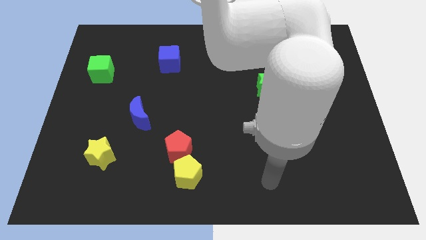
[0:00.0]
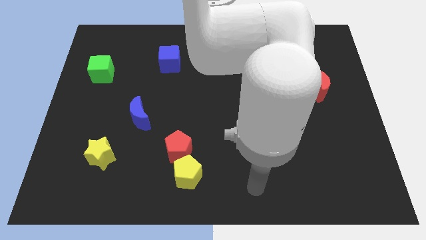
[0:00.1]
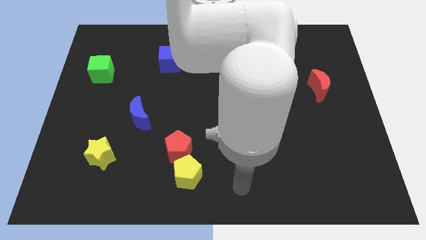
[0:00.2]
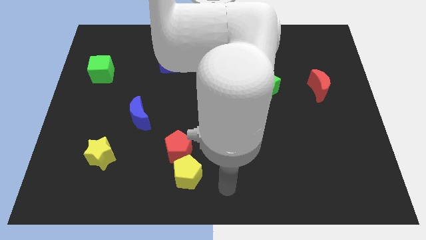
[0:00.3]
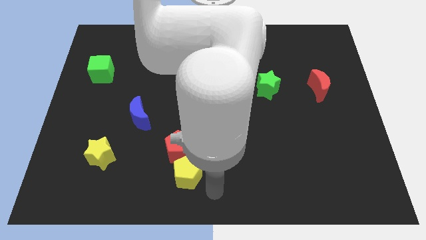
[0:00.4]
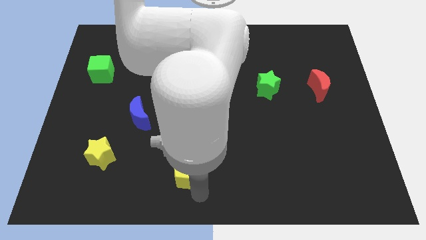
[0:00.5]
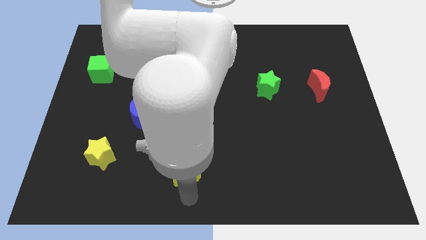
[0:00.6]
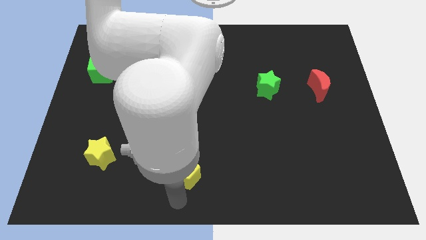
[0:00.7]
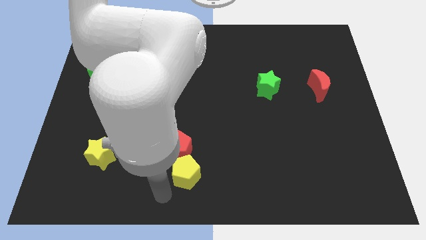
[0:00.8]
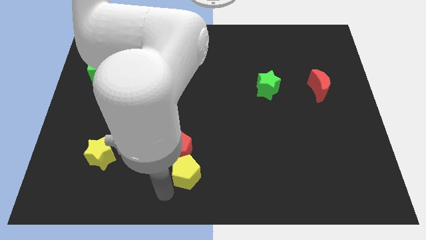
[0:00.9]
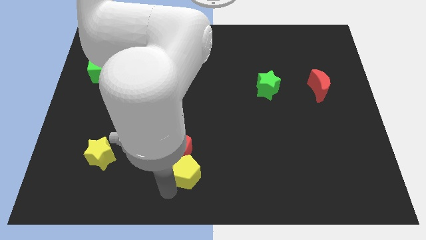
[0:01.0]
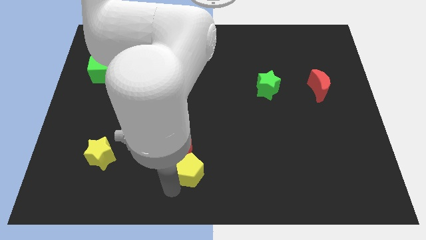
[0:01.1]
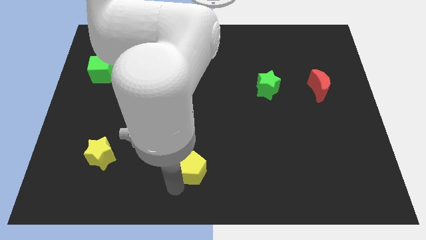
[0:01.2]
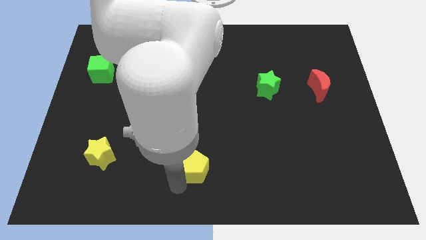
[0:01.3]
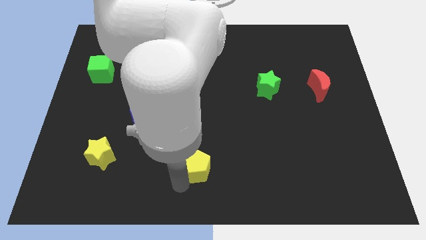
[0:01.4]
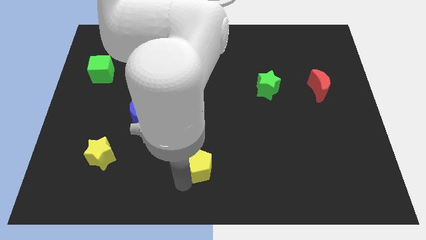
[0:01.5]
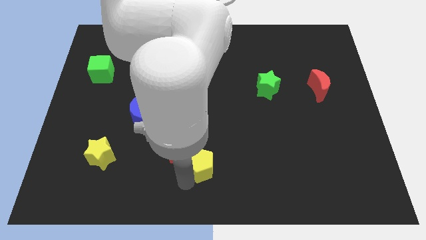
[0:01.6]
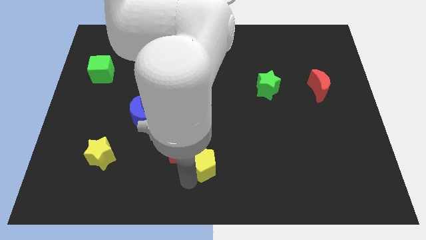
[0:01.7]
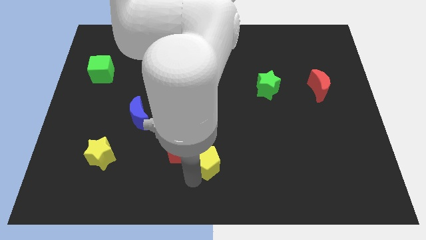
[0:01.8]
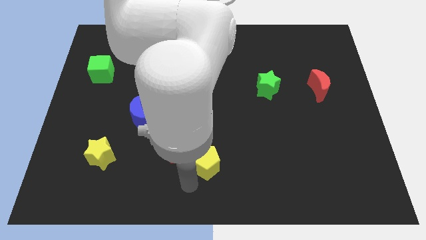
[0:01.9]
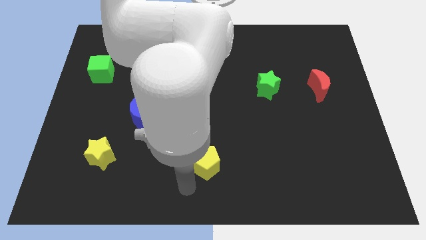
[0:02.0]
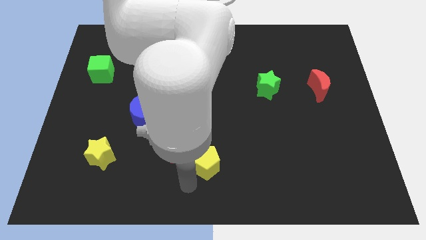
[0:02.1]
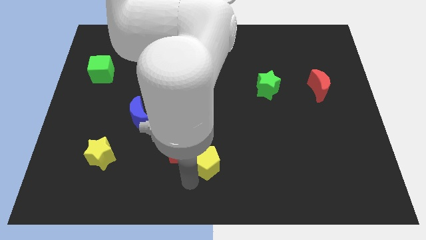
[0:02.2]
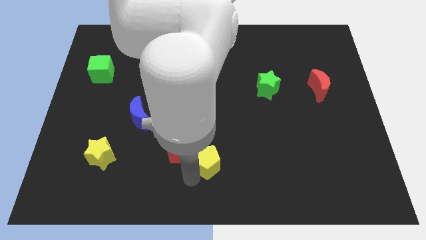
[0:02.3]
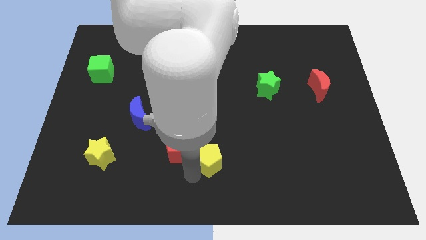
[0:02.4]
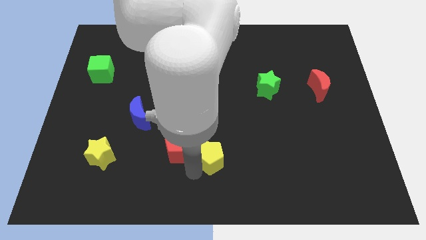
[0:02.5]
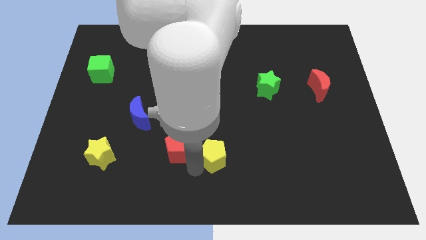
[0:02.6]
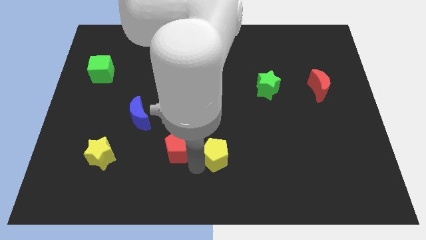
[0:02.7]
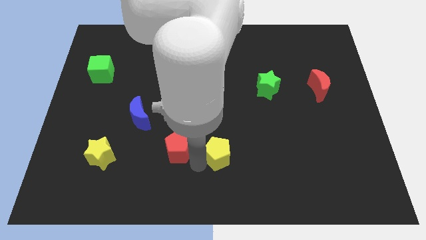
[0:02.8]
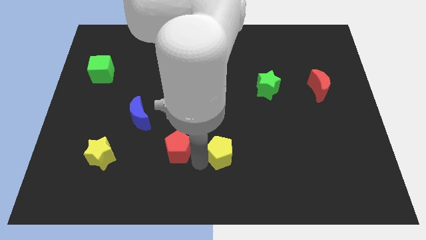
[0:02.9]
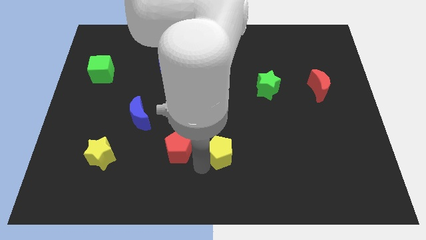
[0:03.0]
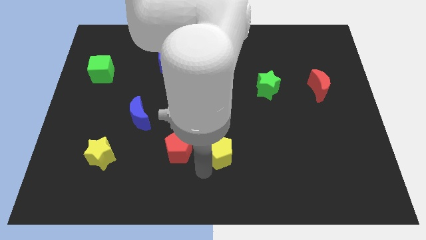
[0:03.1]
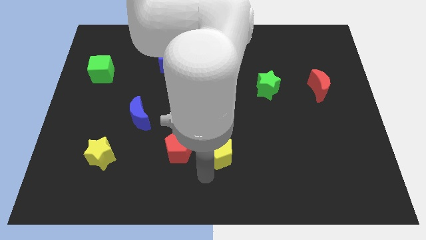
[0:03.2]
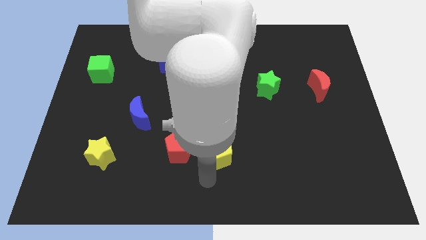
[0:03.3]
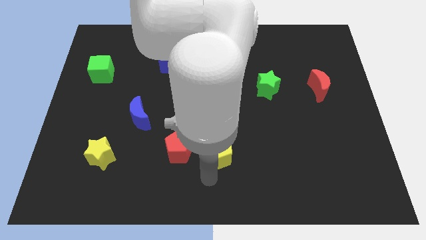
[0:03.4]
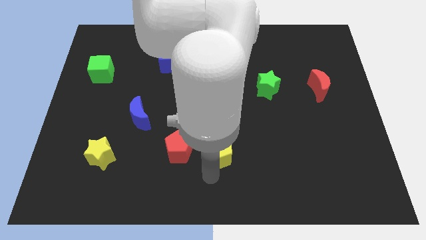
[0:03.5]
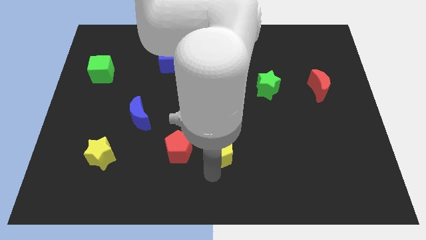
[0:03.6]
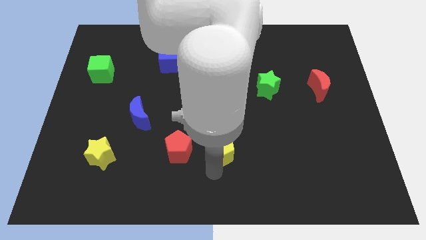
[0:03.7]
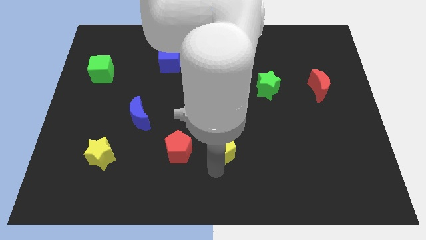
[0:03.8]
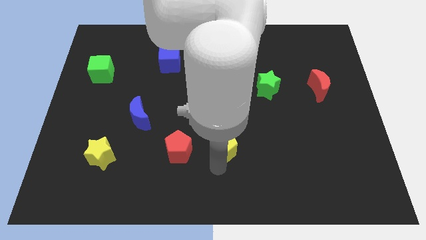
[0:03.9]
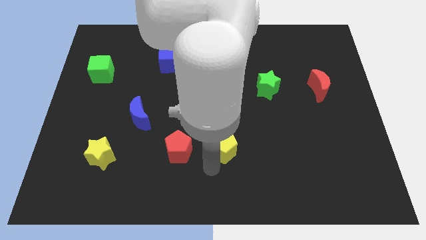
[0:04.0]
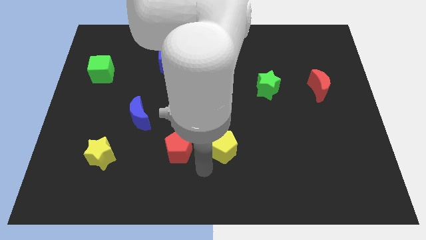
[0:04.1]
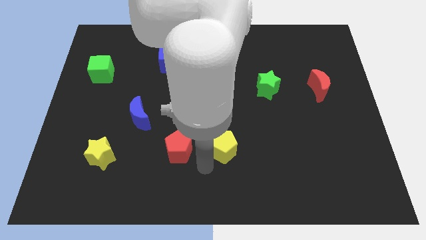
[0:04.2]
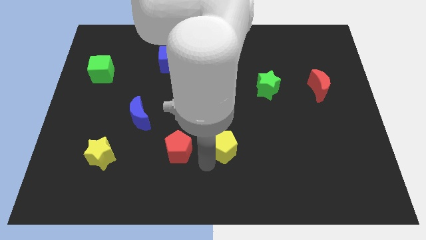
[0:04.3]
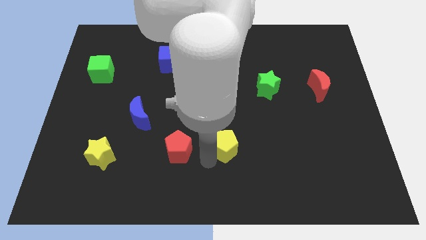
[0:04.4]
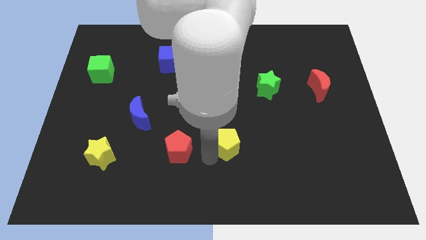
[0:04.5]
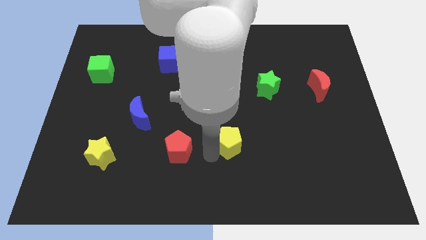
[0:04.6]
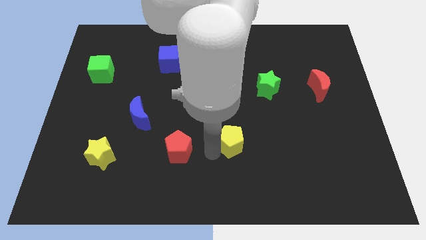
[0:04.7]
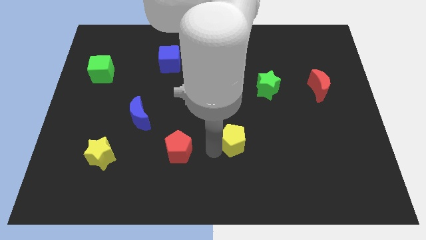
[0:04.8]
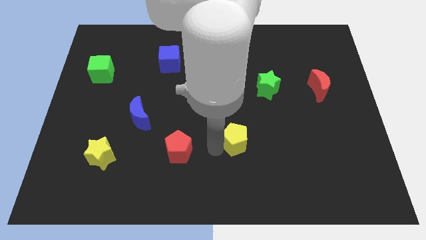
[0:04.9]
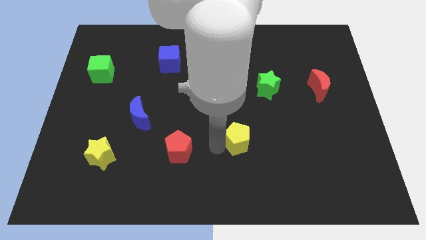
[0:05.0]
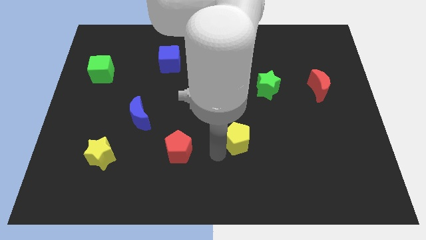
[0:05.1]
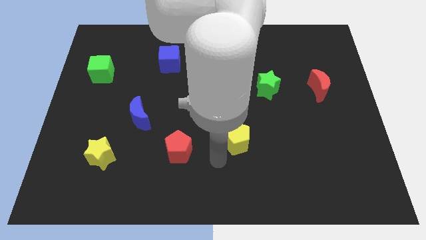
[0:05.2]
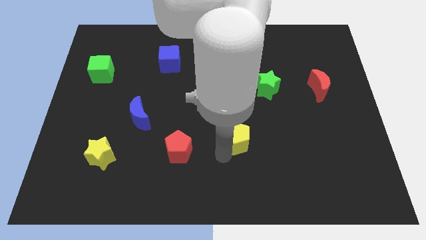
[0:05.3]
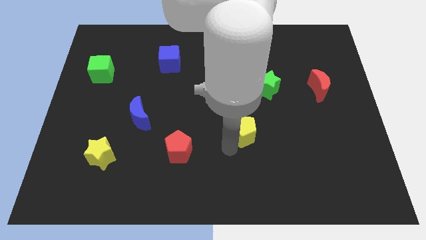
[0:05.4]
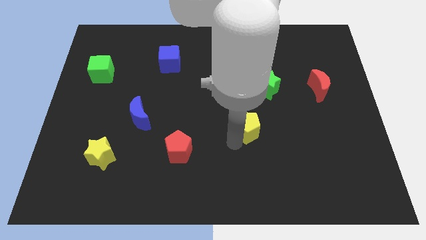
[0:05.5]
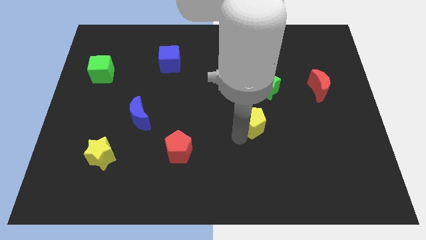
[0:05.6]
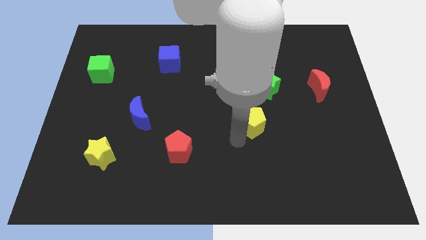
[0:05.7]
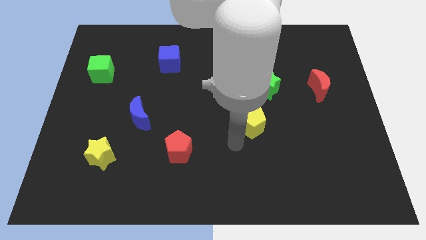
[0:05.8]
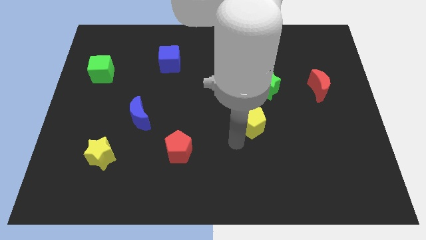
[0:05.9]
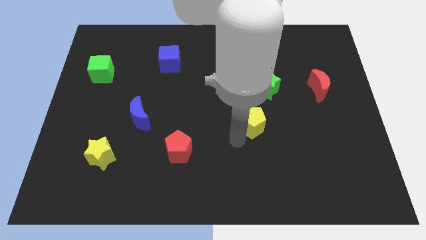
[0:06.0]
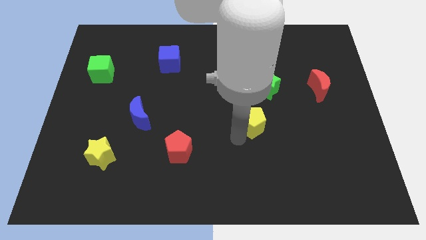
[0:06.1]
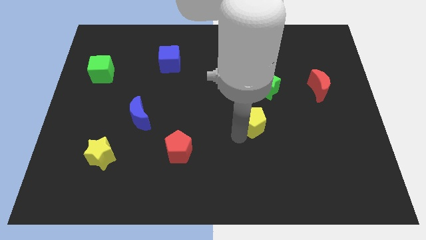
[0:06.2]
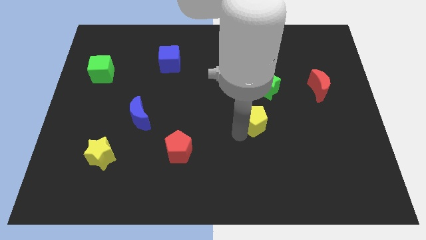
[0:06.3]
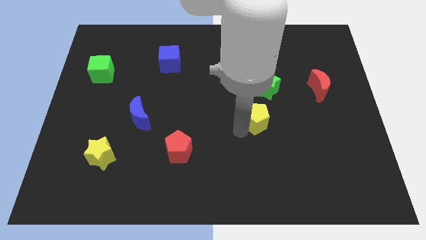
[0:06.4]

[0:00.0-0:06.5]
slide the yellow pentagon up and to the right

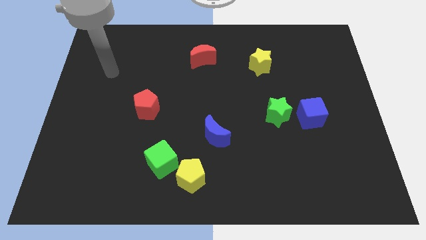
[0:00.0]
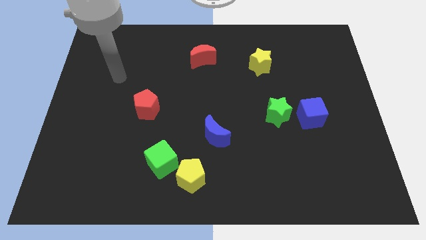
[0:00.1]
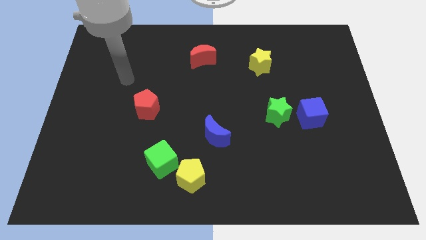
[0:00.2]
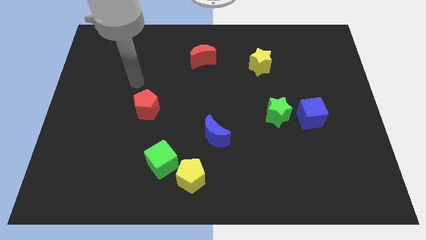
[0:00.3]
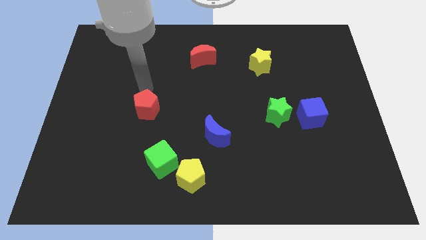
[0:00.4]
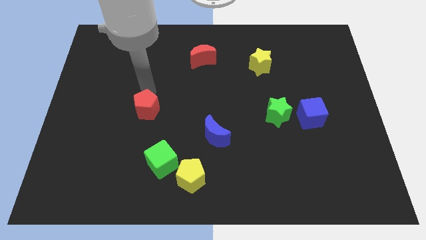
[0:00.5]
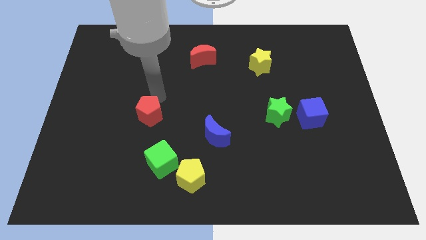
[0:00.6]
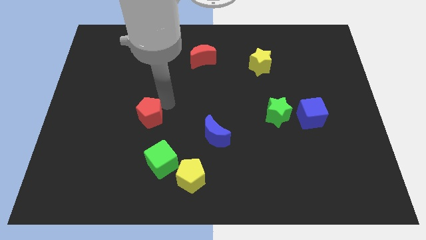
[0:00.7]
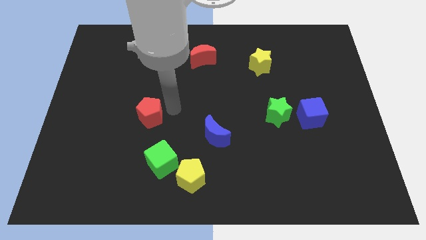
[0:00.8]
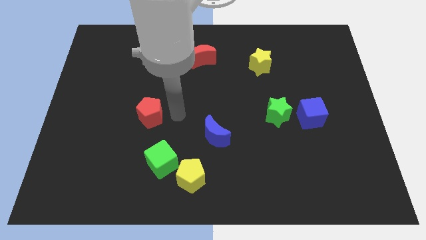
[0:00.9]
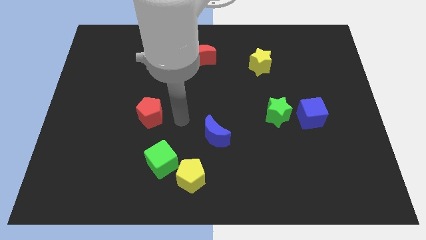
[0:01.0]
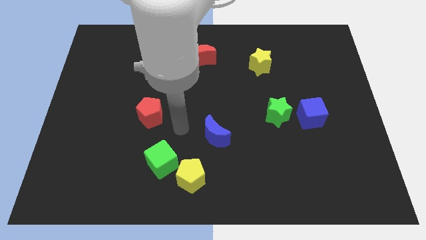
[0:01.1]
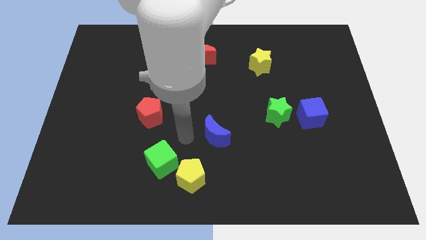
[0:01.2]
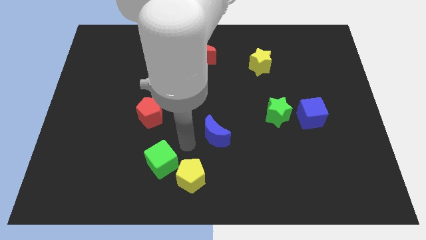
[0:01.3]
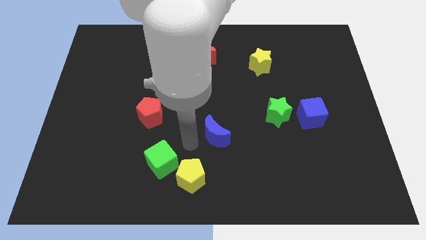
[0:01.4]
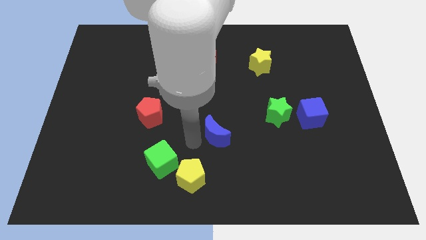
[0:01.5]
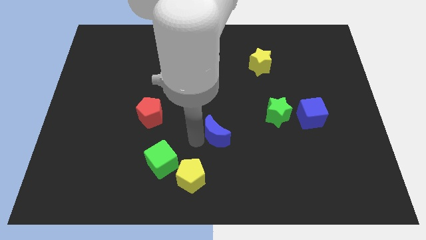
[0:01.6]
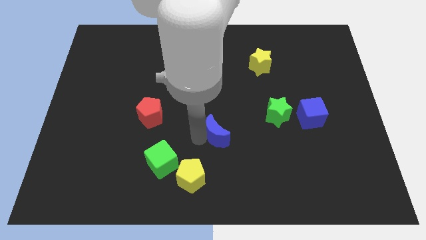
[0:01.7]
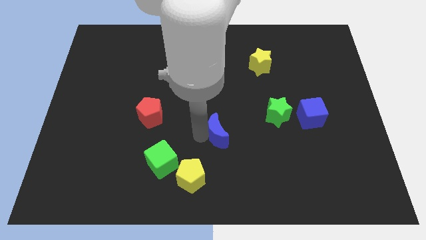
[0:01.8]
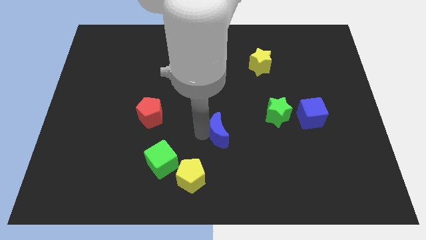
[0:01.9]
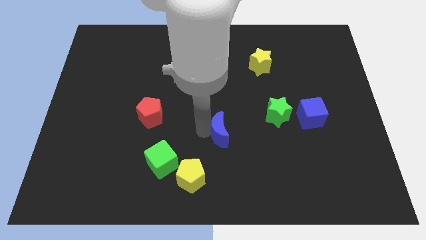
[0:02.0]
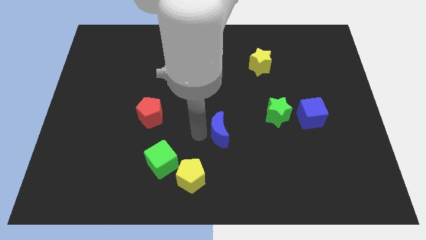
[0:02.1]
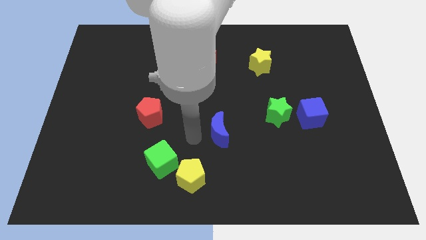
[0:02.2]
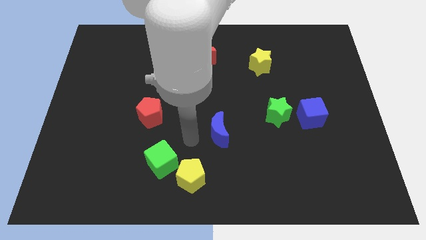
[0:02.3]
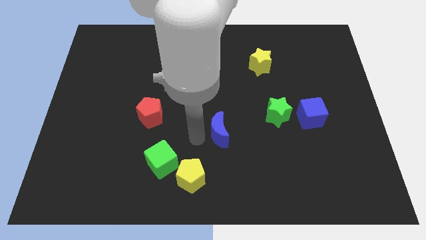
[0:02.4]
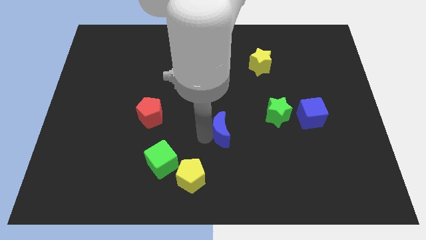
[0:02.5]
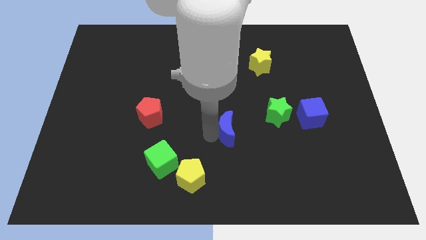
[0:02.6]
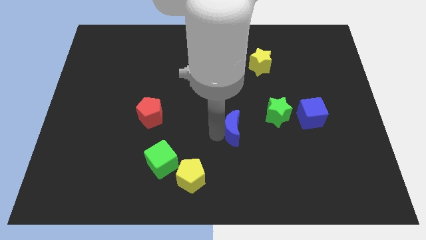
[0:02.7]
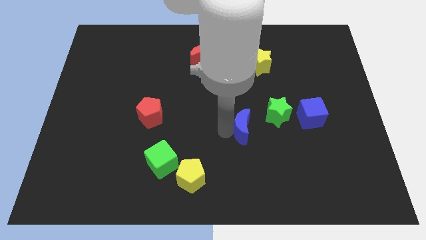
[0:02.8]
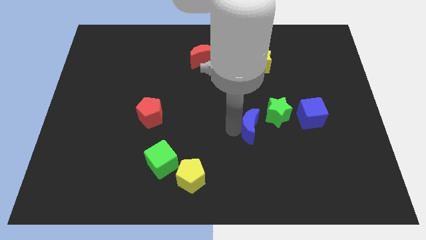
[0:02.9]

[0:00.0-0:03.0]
push the blue moon to the right somewhat
